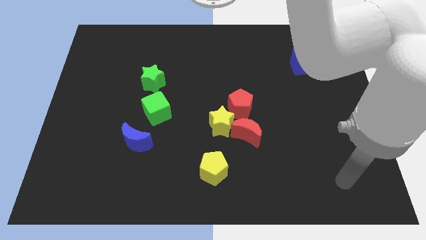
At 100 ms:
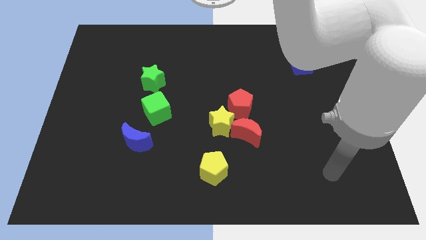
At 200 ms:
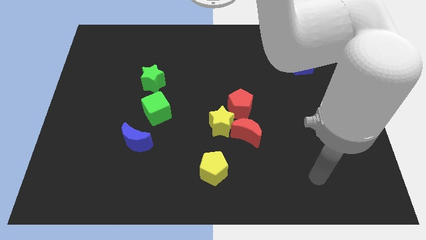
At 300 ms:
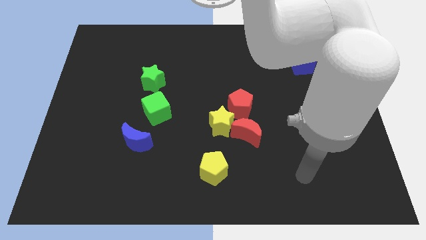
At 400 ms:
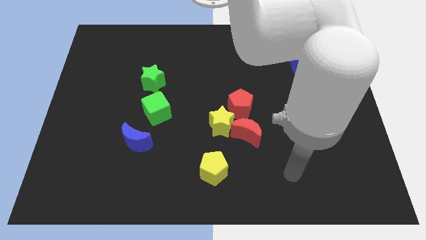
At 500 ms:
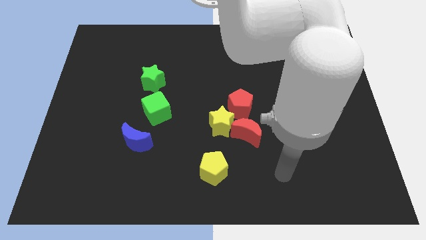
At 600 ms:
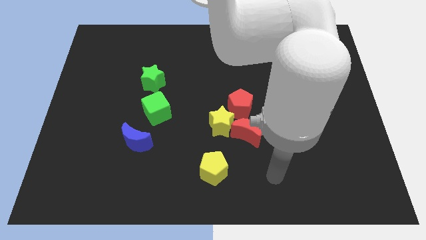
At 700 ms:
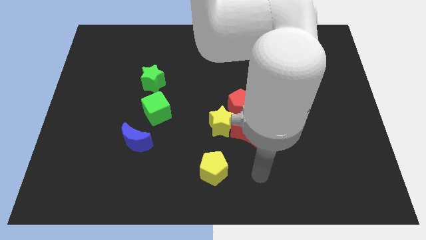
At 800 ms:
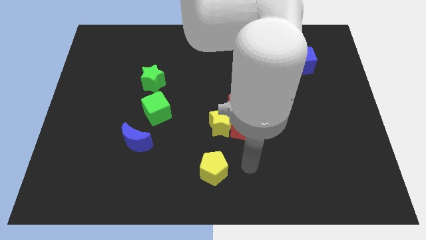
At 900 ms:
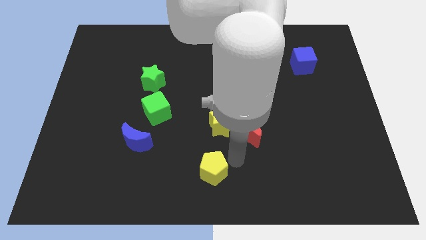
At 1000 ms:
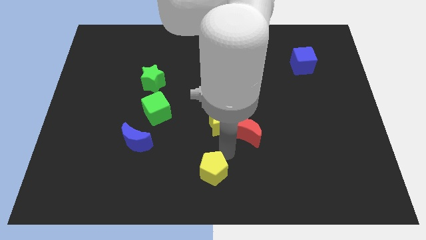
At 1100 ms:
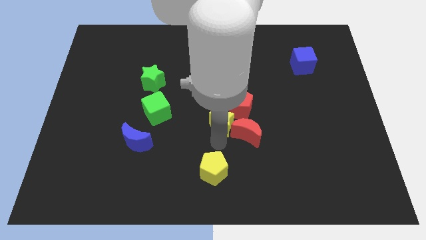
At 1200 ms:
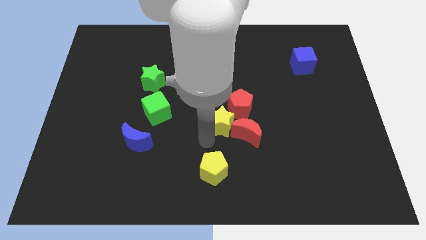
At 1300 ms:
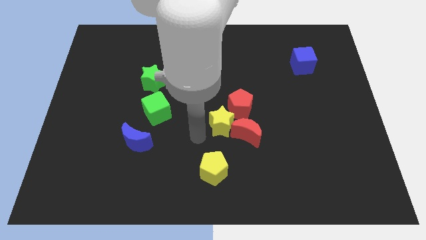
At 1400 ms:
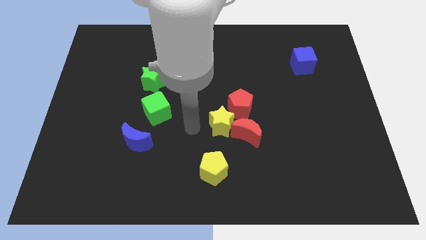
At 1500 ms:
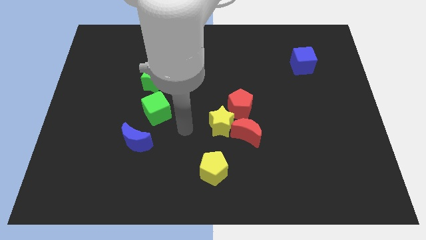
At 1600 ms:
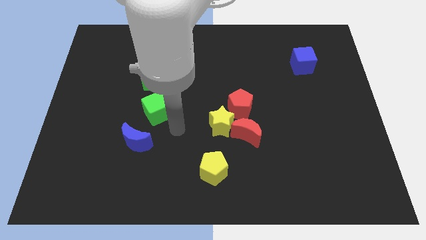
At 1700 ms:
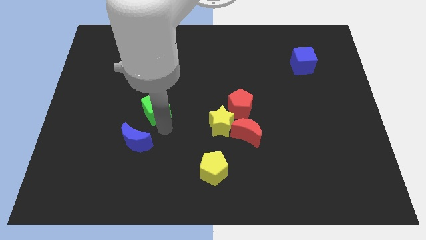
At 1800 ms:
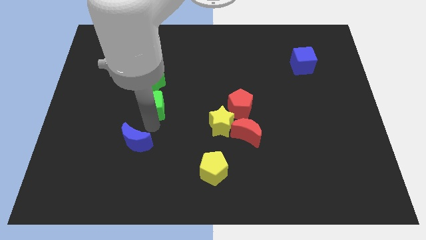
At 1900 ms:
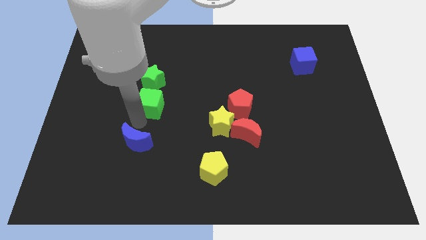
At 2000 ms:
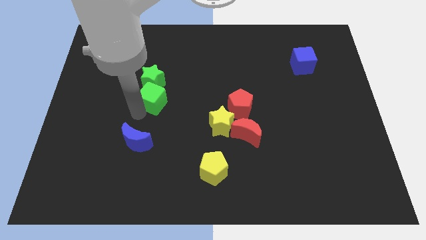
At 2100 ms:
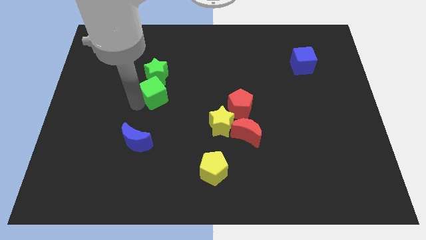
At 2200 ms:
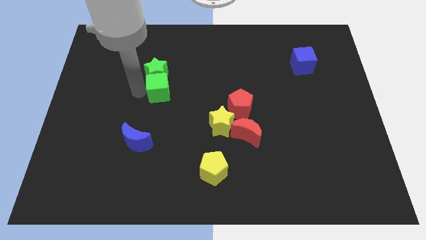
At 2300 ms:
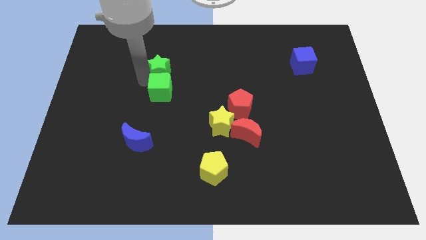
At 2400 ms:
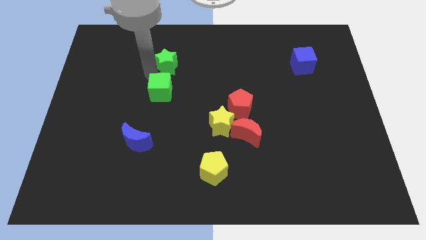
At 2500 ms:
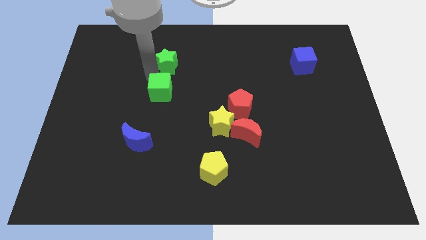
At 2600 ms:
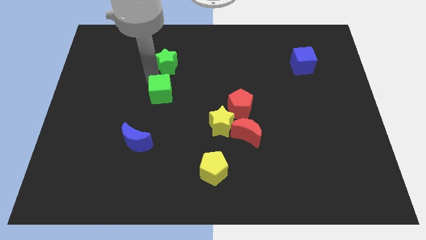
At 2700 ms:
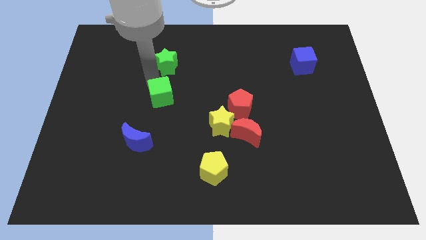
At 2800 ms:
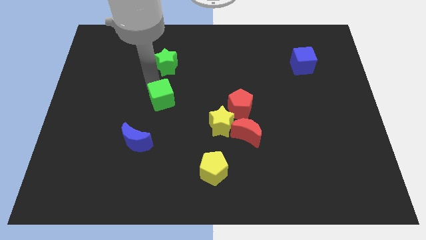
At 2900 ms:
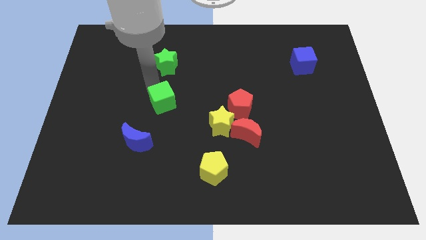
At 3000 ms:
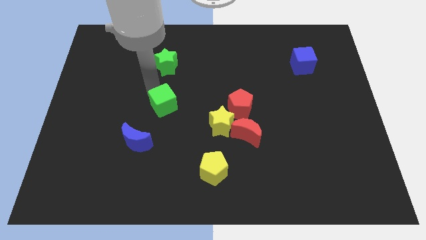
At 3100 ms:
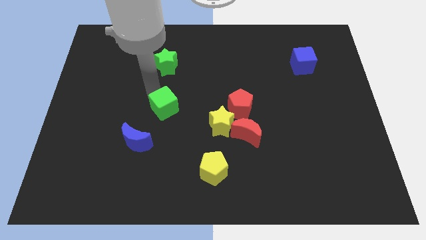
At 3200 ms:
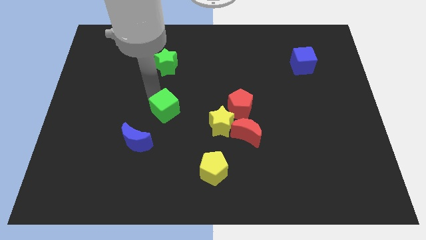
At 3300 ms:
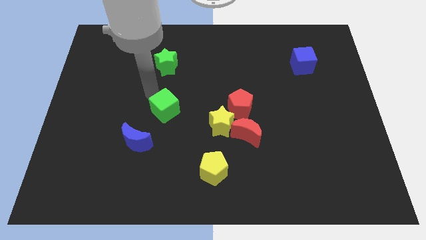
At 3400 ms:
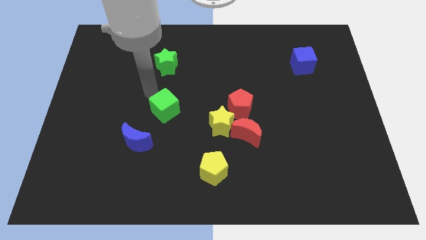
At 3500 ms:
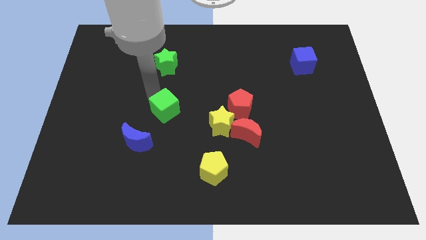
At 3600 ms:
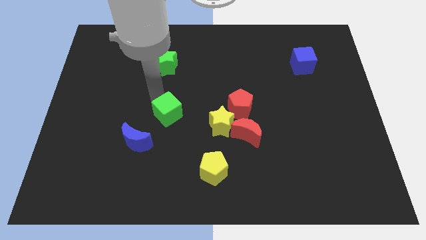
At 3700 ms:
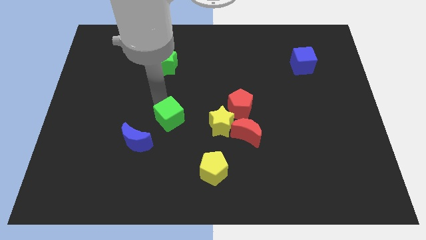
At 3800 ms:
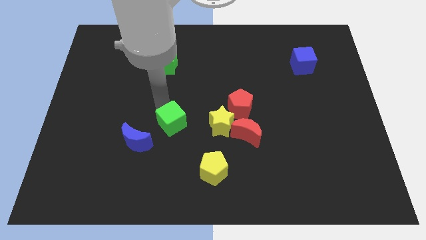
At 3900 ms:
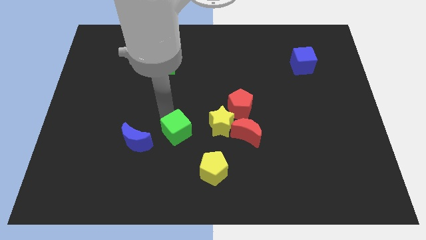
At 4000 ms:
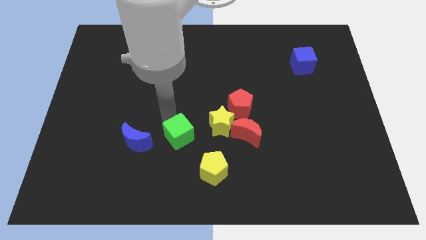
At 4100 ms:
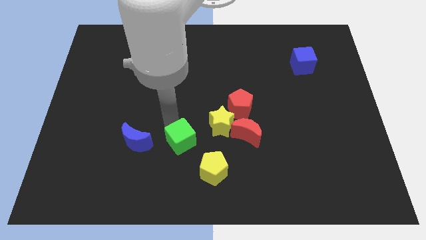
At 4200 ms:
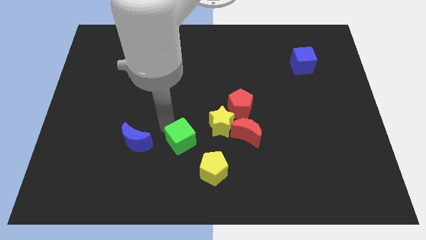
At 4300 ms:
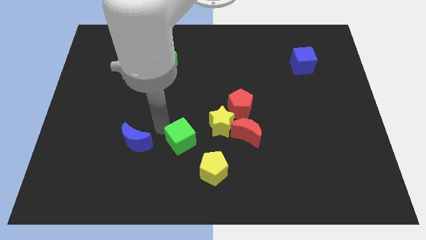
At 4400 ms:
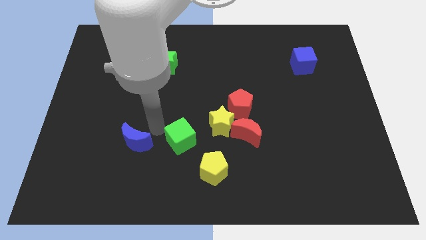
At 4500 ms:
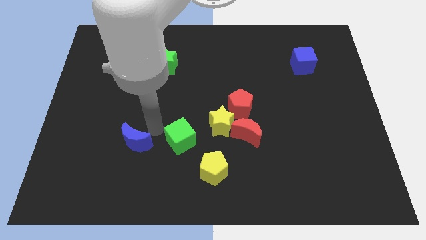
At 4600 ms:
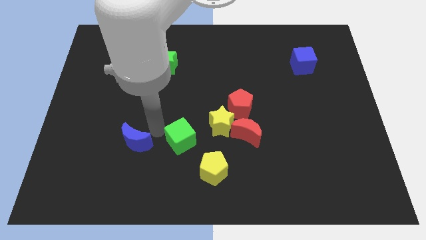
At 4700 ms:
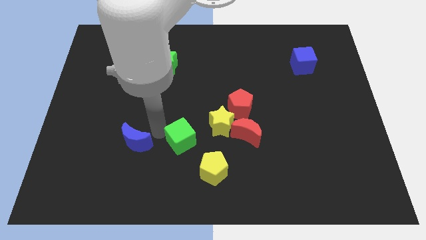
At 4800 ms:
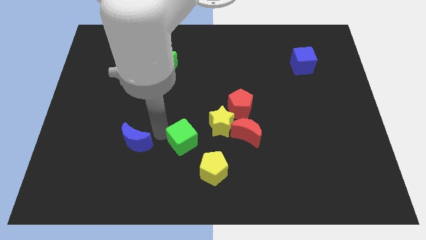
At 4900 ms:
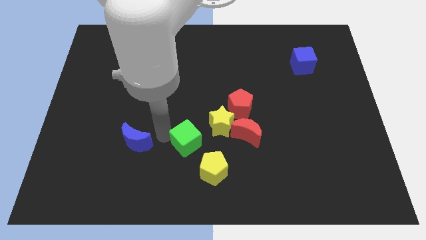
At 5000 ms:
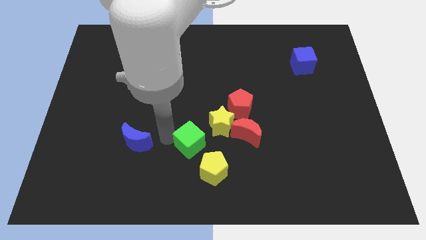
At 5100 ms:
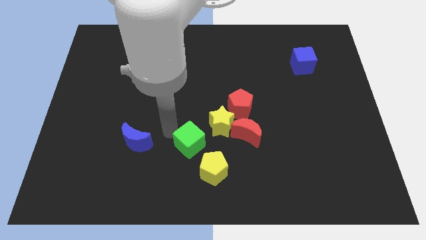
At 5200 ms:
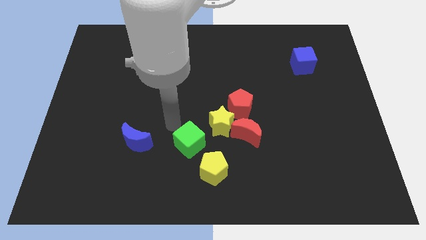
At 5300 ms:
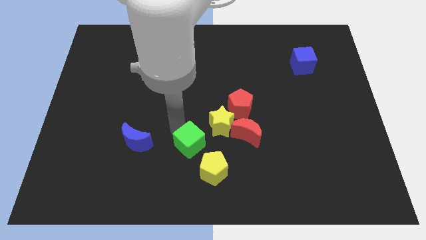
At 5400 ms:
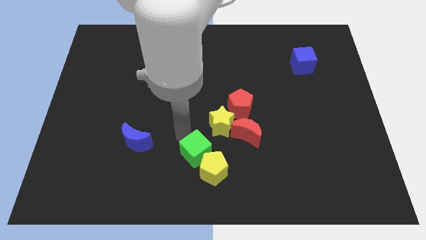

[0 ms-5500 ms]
move the green cube close to the yellow pentagon

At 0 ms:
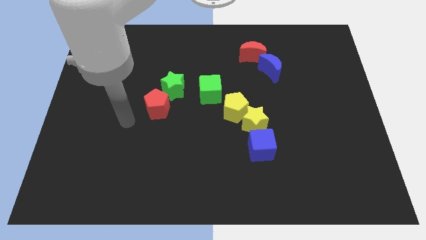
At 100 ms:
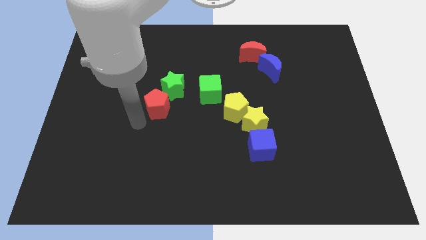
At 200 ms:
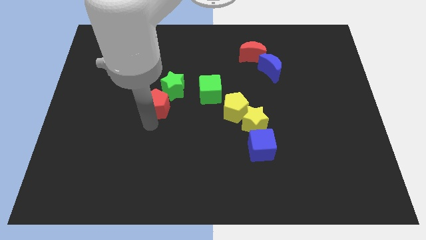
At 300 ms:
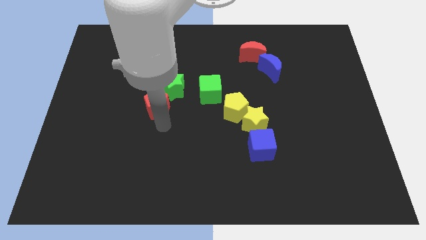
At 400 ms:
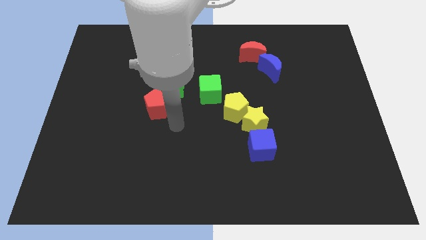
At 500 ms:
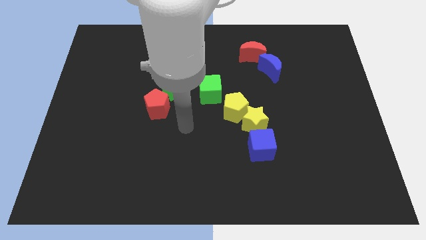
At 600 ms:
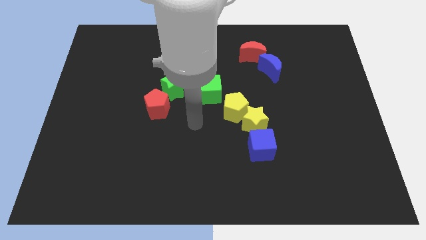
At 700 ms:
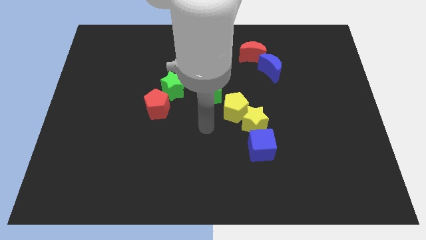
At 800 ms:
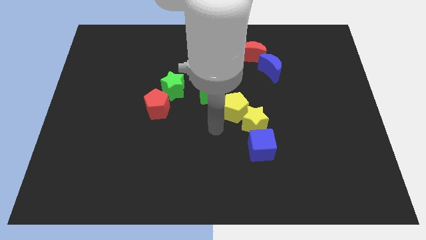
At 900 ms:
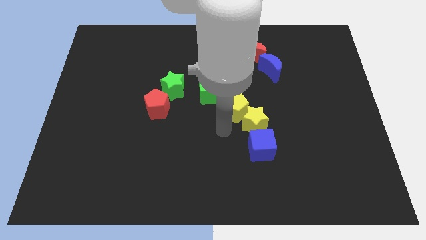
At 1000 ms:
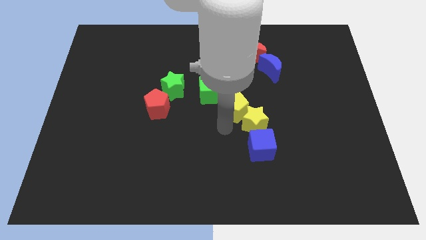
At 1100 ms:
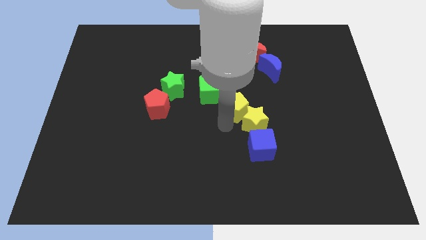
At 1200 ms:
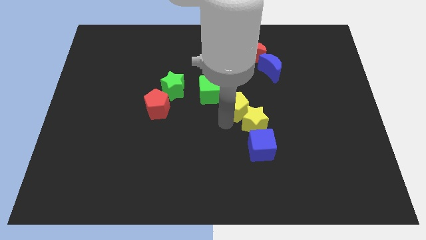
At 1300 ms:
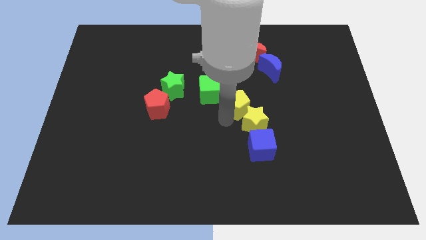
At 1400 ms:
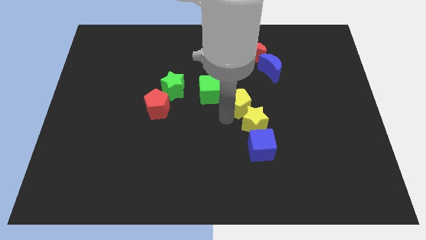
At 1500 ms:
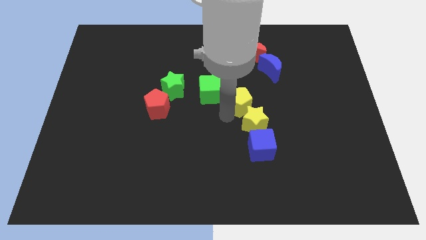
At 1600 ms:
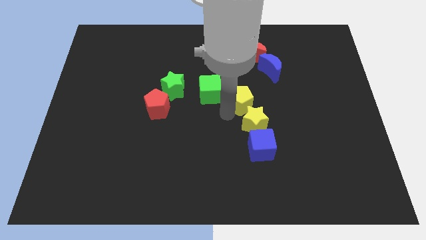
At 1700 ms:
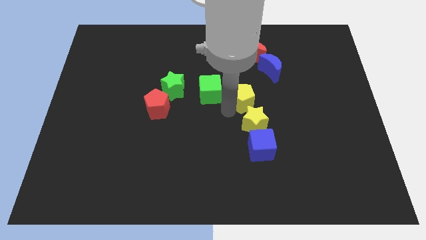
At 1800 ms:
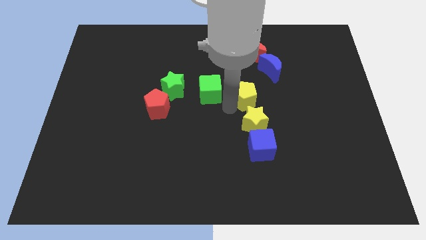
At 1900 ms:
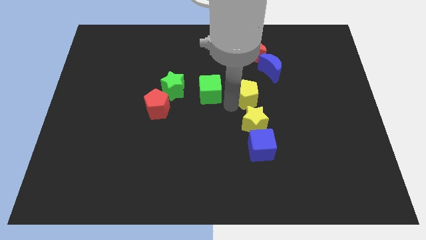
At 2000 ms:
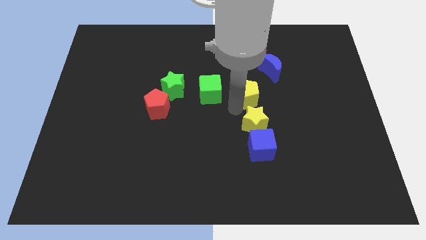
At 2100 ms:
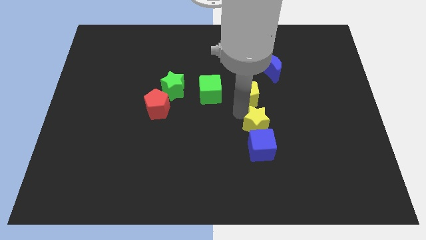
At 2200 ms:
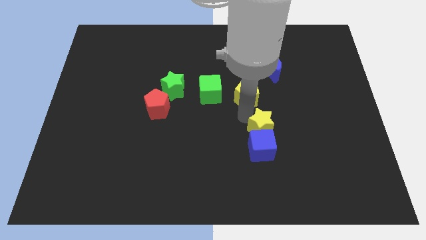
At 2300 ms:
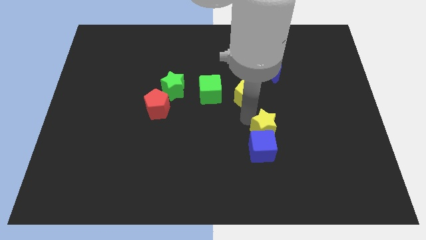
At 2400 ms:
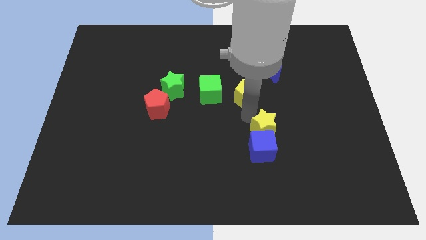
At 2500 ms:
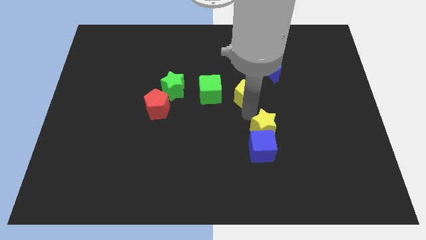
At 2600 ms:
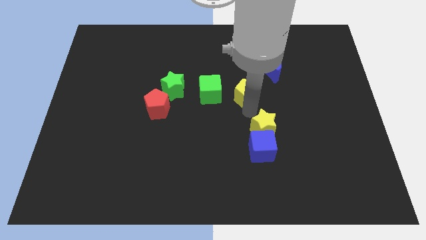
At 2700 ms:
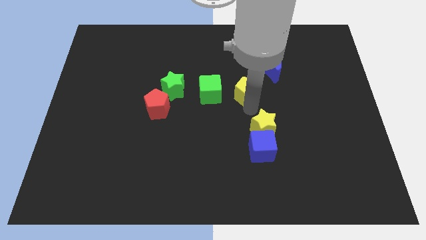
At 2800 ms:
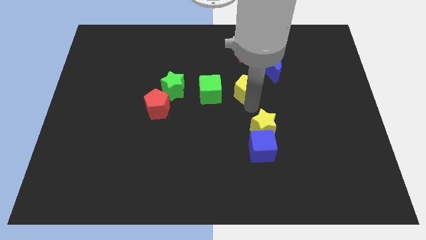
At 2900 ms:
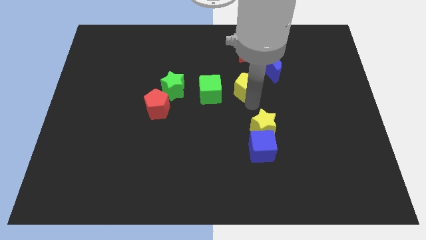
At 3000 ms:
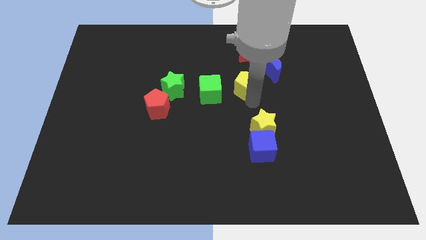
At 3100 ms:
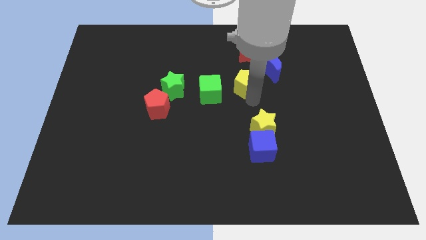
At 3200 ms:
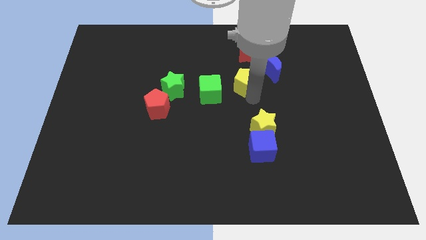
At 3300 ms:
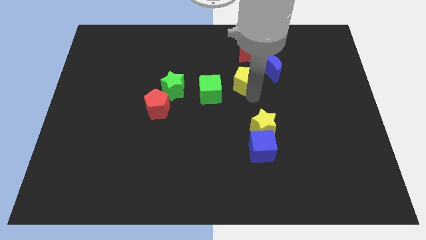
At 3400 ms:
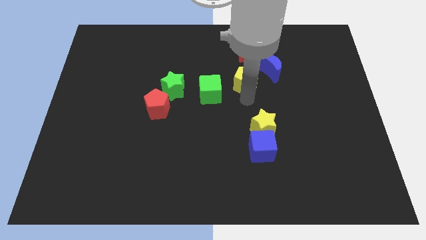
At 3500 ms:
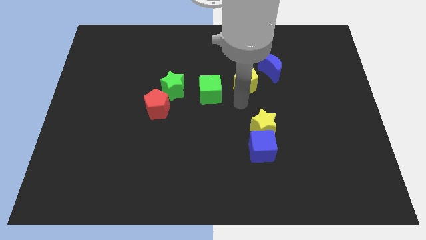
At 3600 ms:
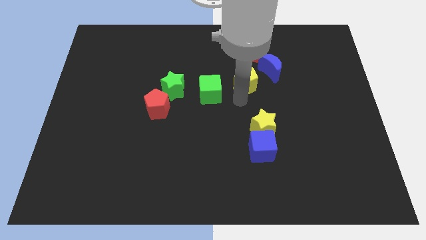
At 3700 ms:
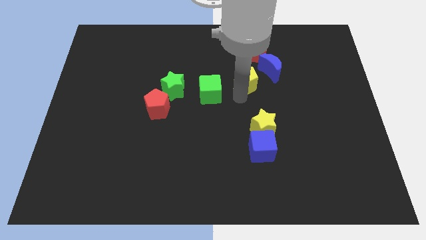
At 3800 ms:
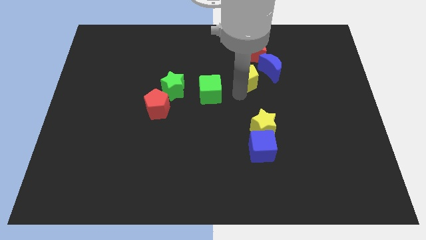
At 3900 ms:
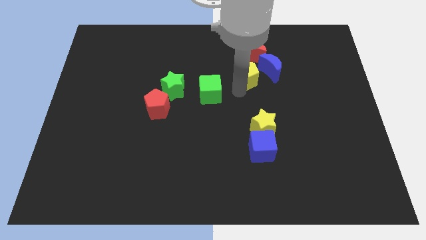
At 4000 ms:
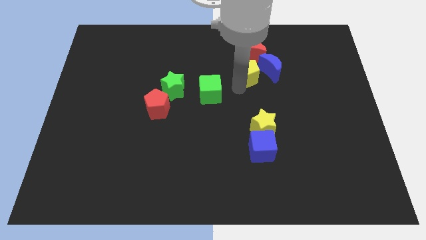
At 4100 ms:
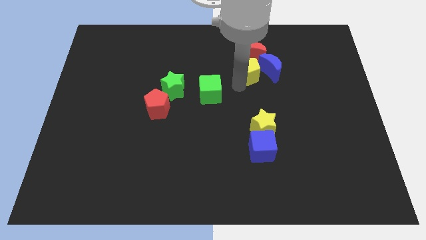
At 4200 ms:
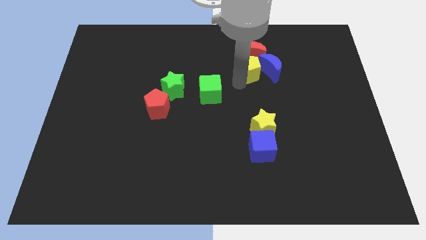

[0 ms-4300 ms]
slide the yellow pentagon close to the red moon
